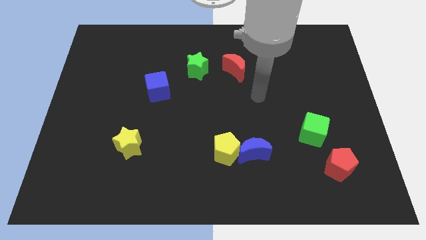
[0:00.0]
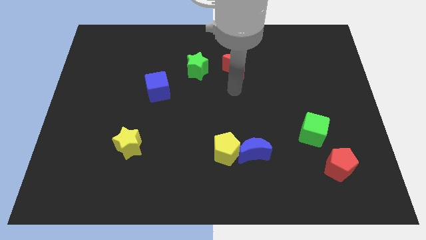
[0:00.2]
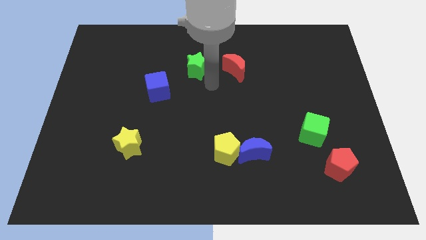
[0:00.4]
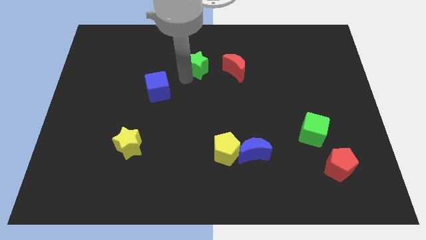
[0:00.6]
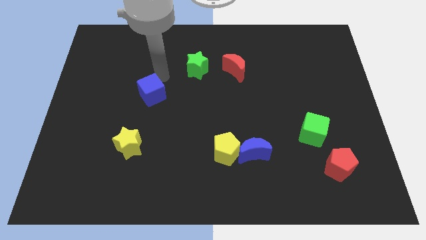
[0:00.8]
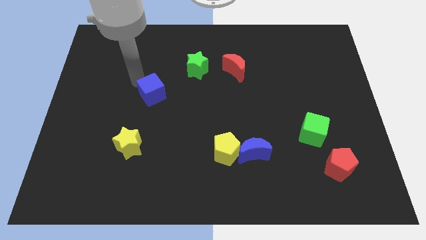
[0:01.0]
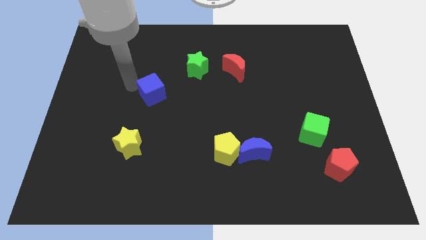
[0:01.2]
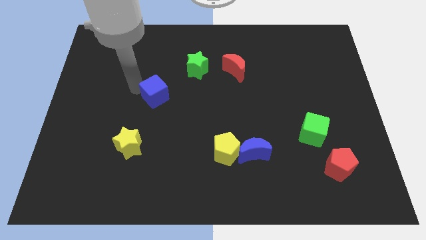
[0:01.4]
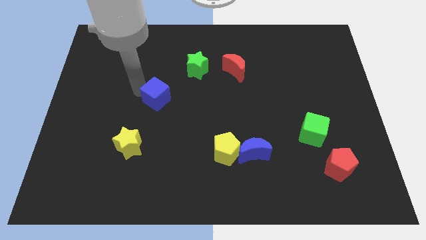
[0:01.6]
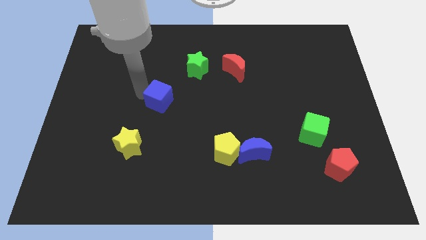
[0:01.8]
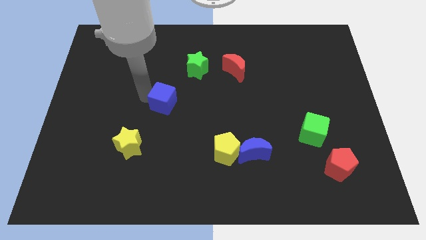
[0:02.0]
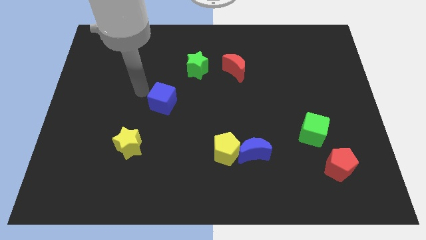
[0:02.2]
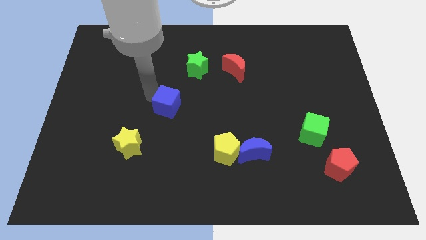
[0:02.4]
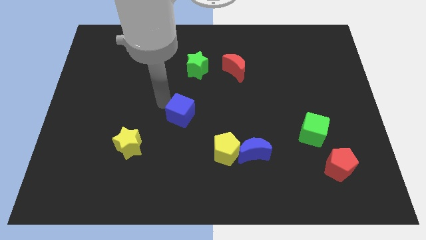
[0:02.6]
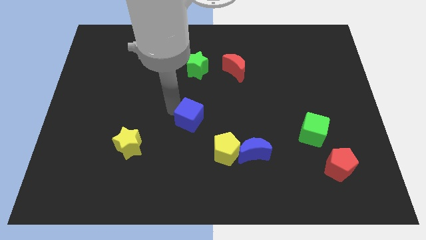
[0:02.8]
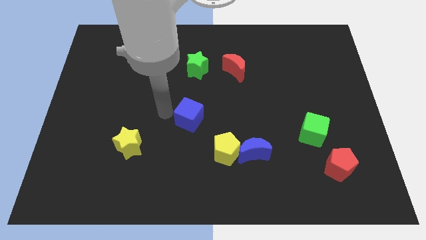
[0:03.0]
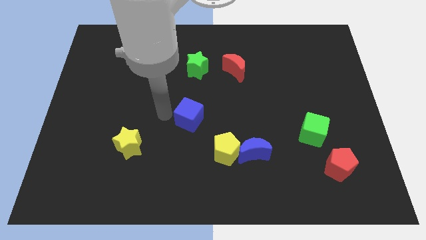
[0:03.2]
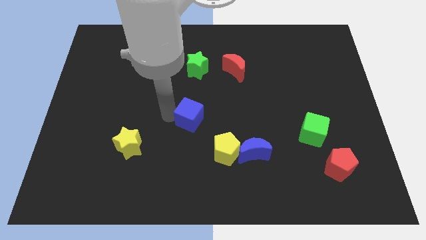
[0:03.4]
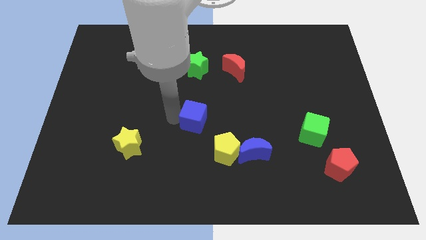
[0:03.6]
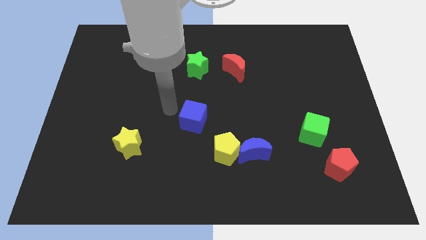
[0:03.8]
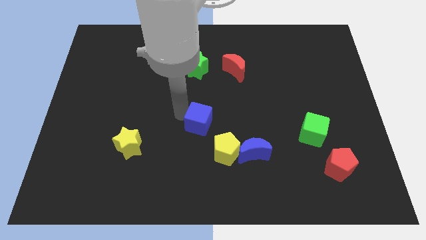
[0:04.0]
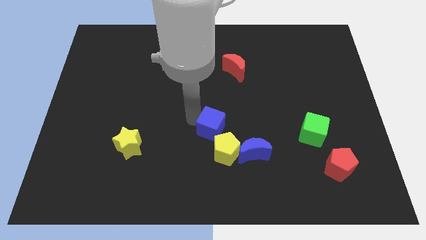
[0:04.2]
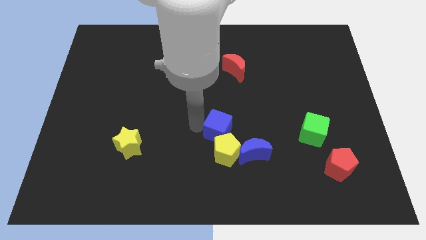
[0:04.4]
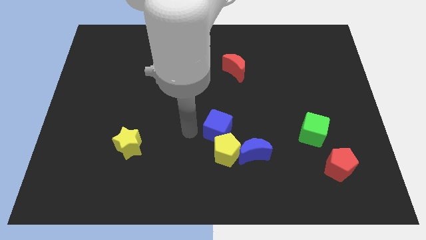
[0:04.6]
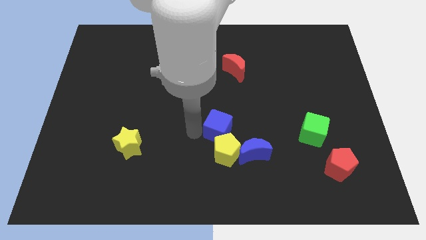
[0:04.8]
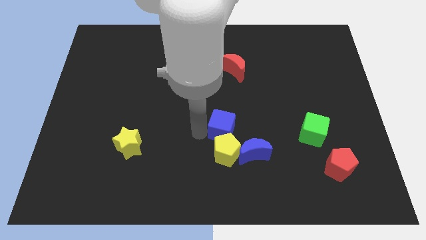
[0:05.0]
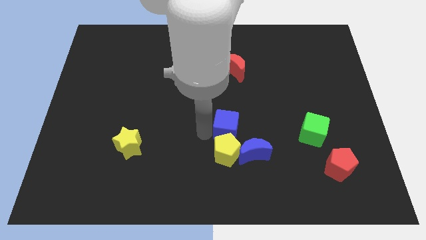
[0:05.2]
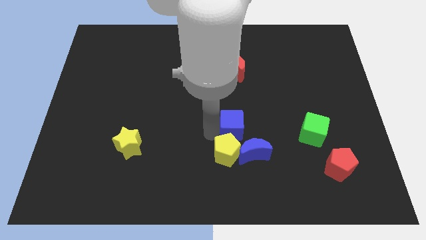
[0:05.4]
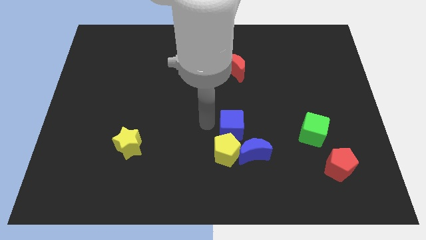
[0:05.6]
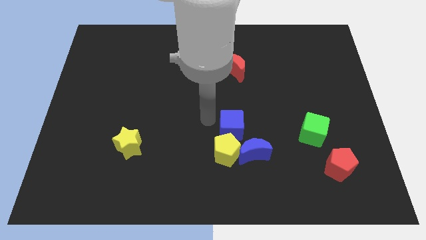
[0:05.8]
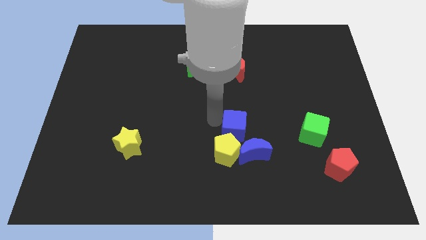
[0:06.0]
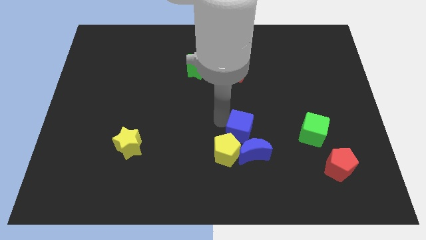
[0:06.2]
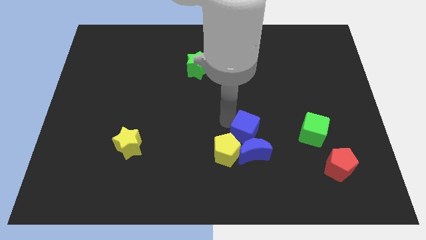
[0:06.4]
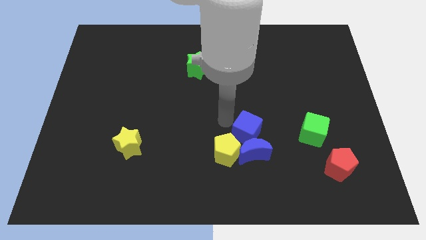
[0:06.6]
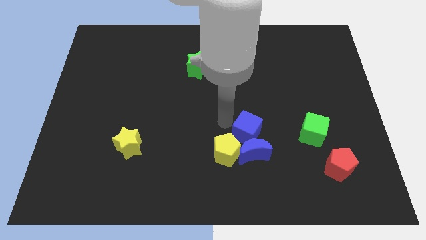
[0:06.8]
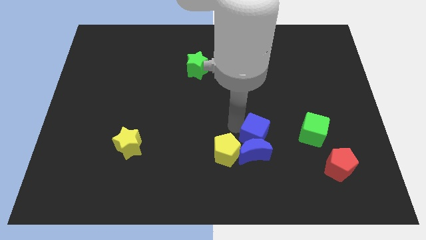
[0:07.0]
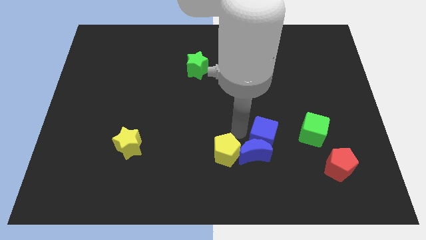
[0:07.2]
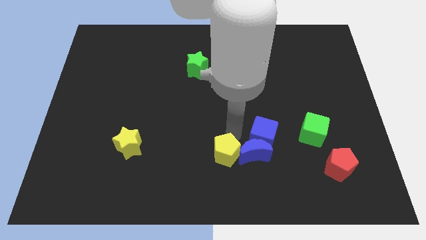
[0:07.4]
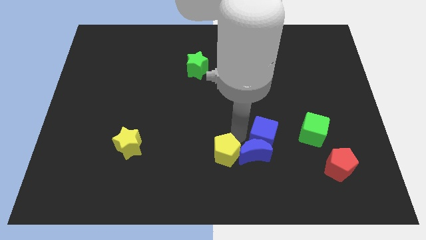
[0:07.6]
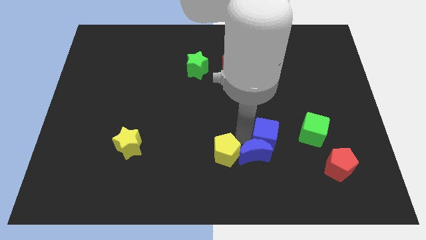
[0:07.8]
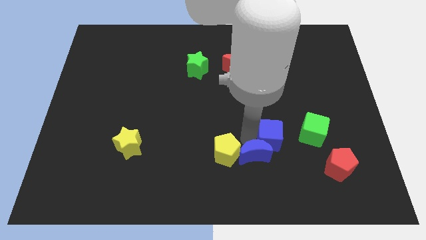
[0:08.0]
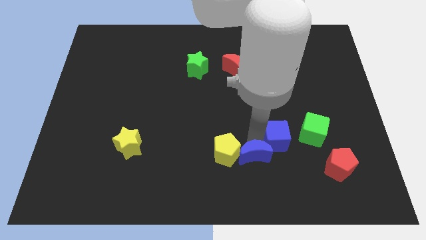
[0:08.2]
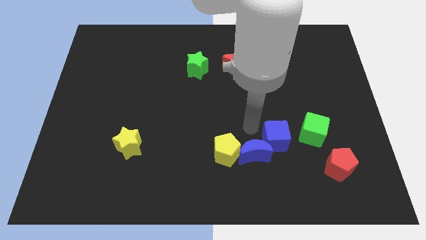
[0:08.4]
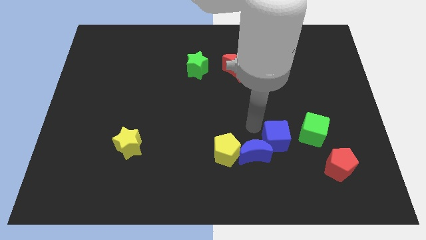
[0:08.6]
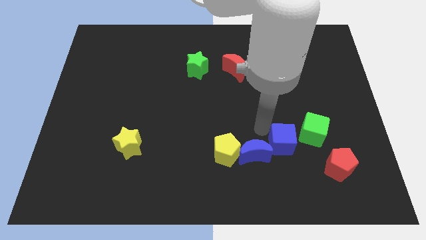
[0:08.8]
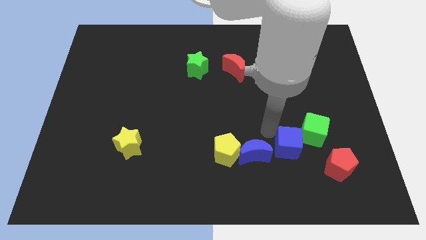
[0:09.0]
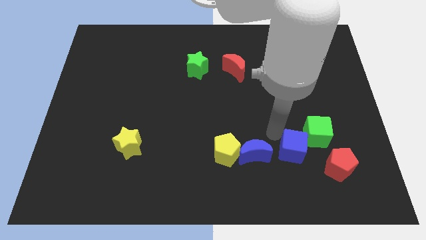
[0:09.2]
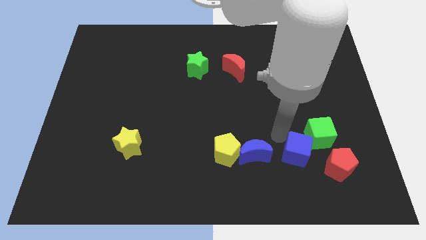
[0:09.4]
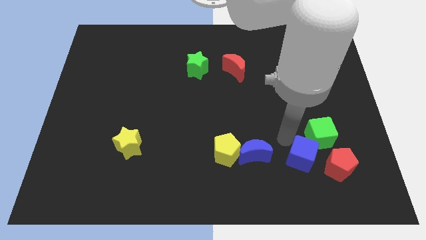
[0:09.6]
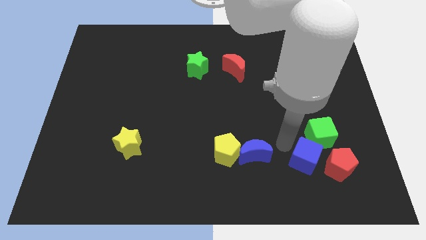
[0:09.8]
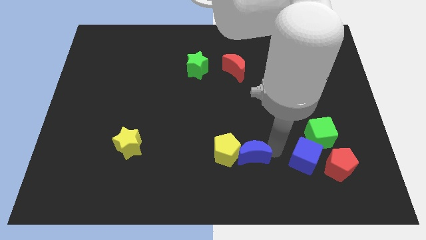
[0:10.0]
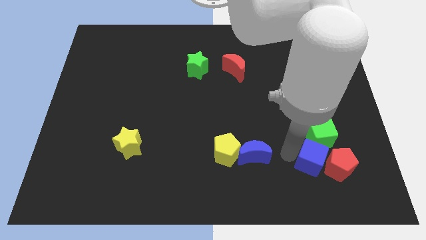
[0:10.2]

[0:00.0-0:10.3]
put the blue cube towards the red pentagon

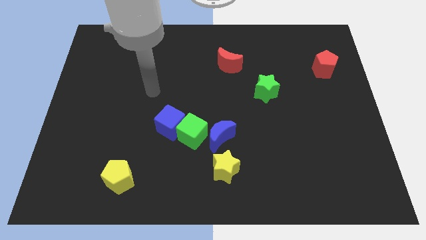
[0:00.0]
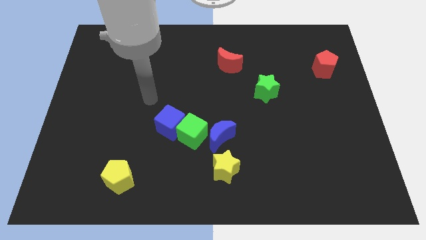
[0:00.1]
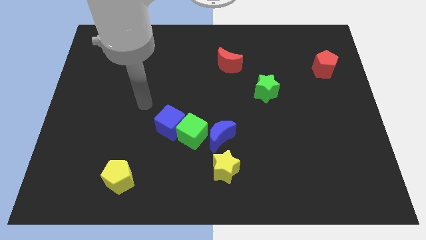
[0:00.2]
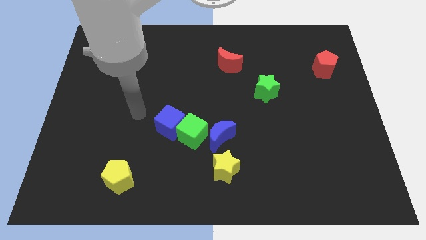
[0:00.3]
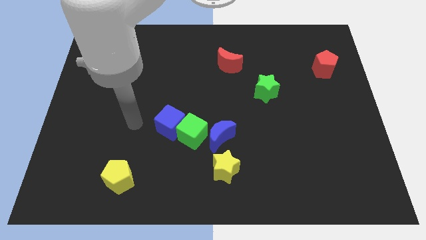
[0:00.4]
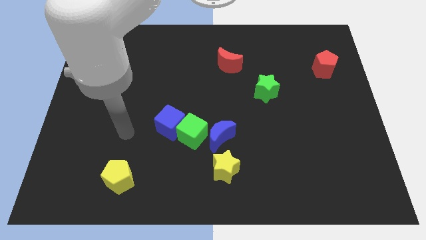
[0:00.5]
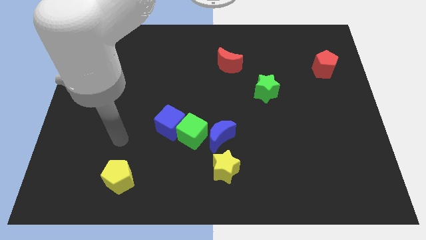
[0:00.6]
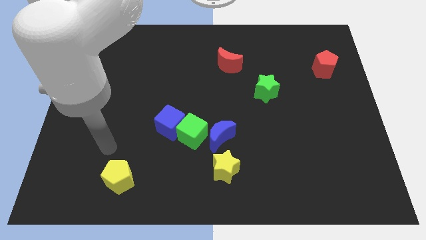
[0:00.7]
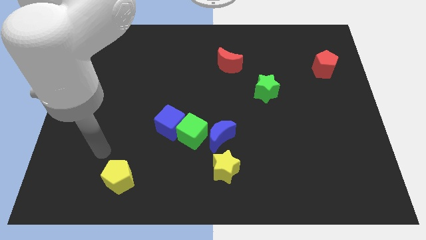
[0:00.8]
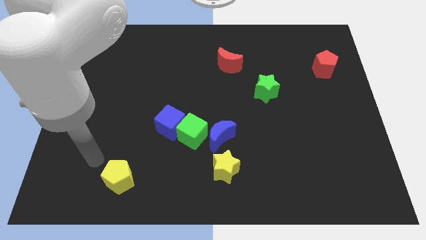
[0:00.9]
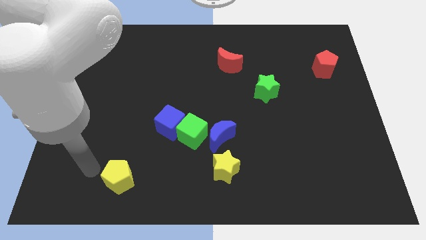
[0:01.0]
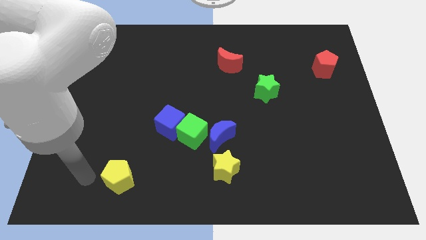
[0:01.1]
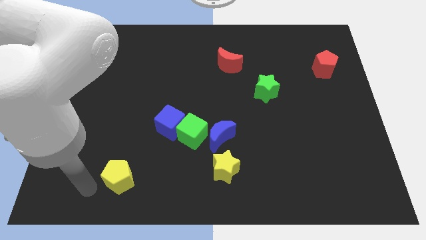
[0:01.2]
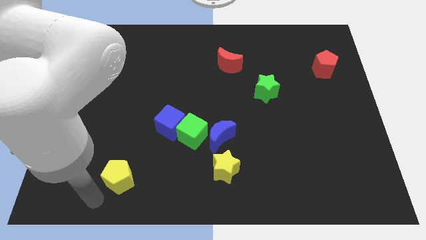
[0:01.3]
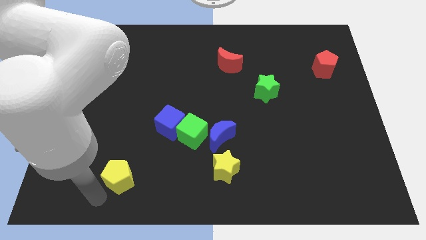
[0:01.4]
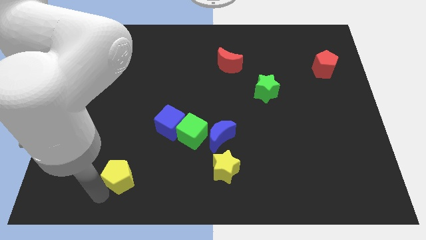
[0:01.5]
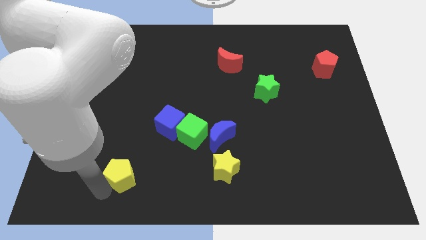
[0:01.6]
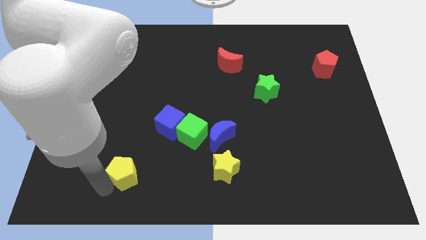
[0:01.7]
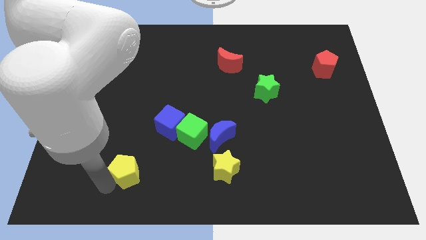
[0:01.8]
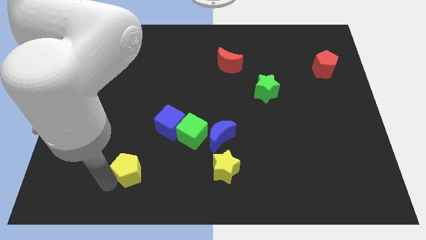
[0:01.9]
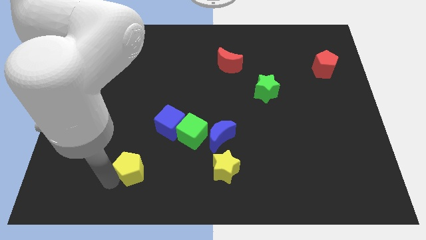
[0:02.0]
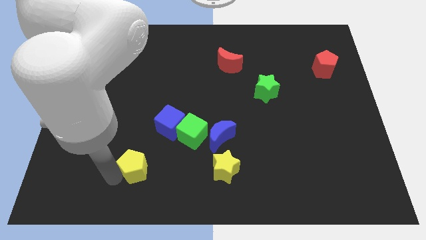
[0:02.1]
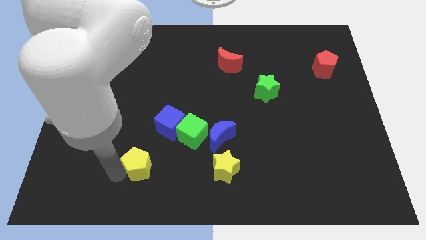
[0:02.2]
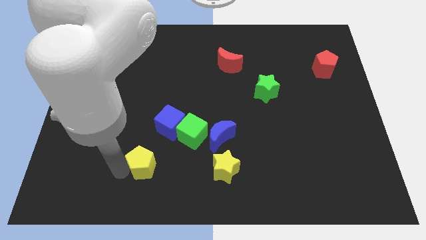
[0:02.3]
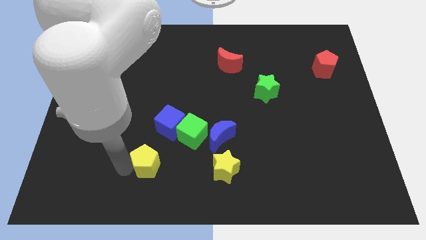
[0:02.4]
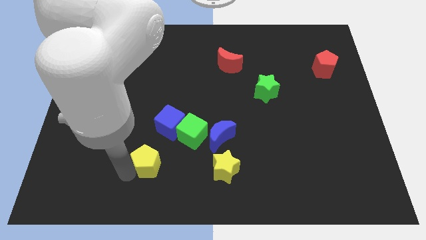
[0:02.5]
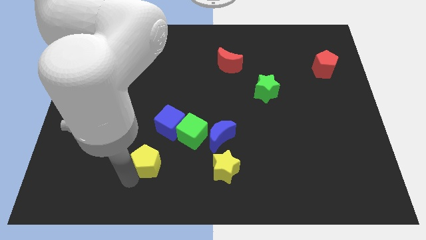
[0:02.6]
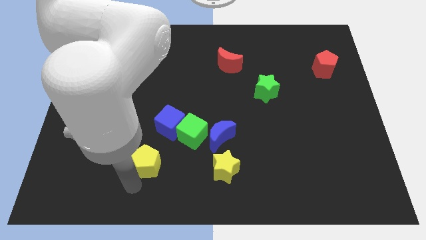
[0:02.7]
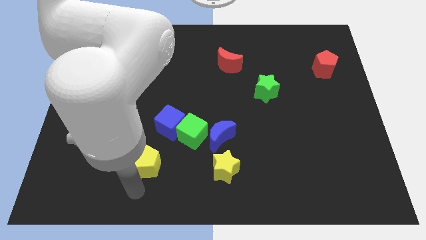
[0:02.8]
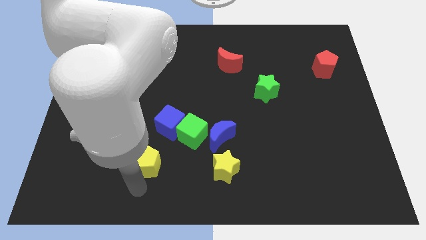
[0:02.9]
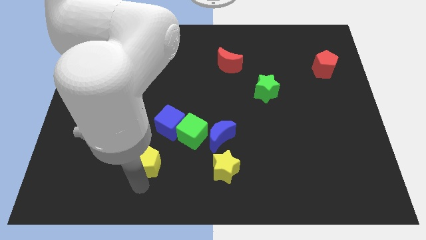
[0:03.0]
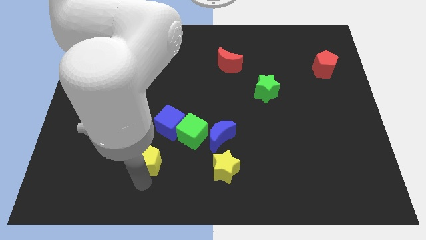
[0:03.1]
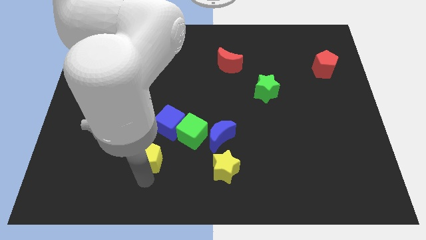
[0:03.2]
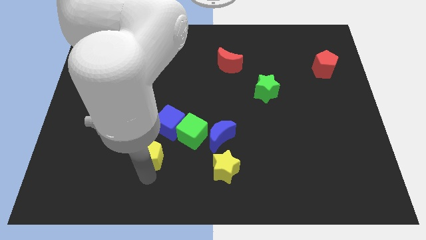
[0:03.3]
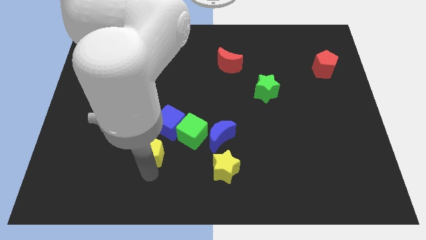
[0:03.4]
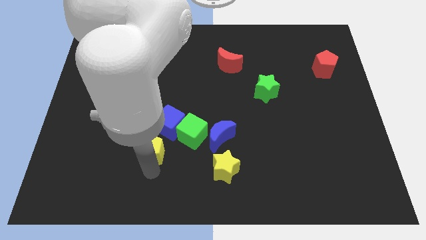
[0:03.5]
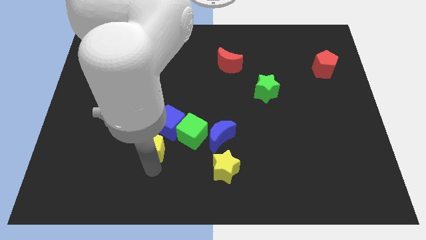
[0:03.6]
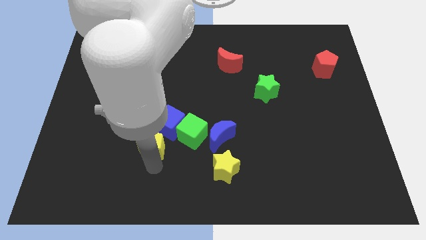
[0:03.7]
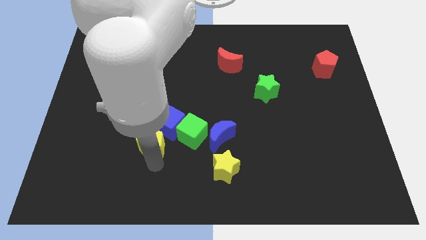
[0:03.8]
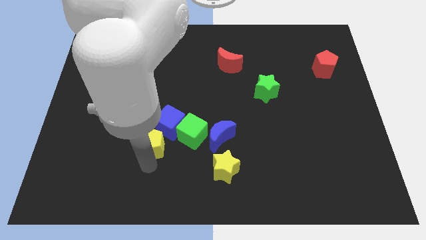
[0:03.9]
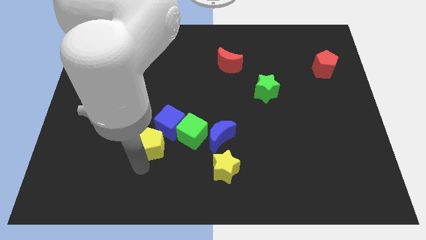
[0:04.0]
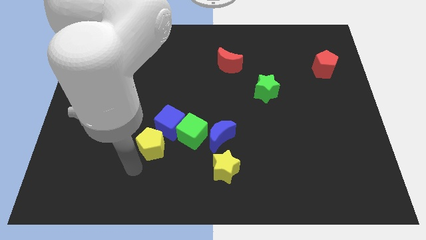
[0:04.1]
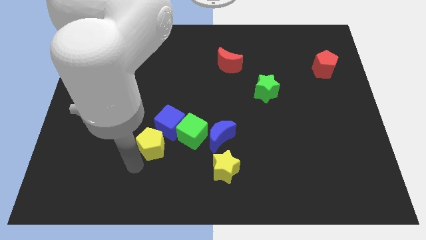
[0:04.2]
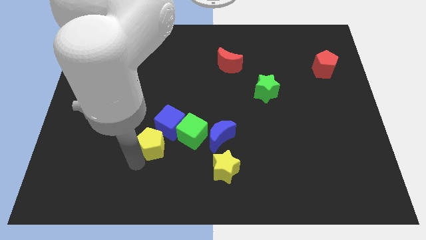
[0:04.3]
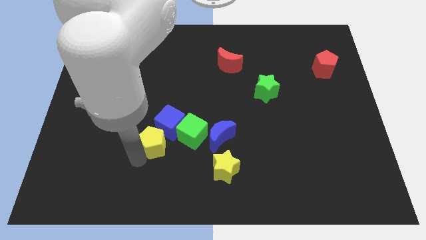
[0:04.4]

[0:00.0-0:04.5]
slide the yellow pentagon towards the blue cube
